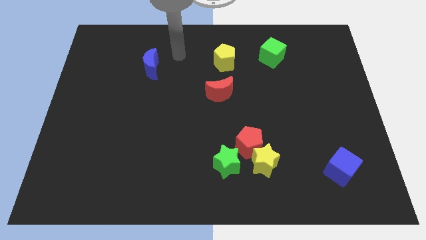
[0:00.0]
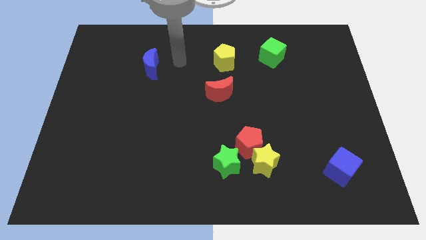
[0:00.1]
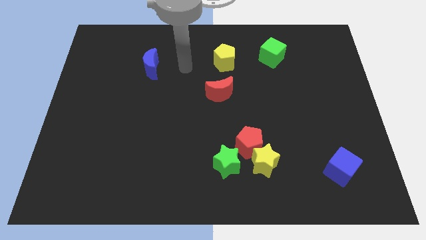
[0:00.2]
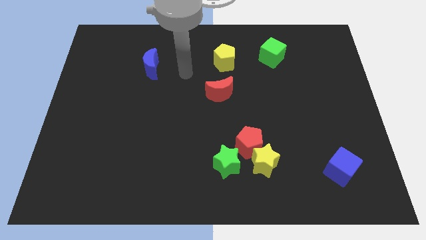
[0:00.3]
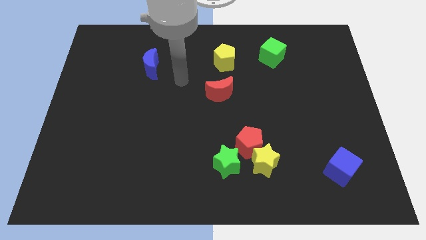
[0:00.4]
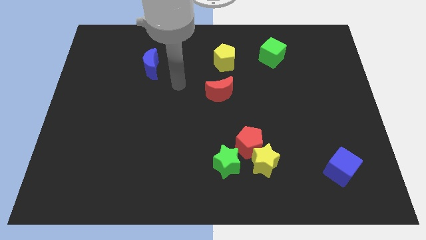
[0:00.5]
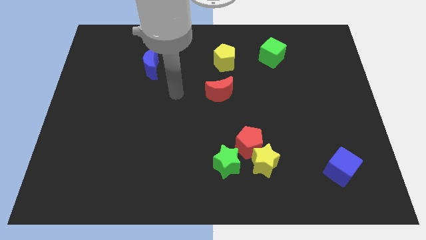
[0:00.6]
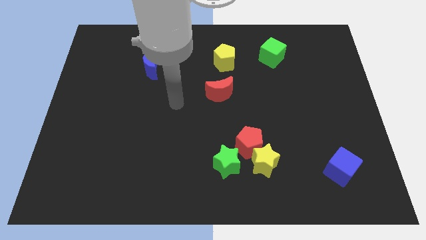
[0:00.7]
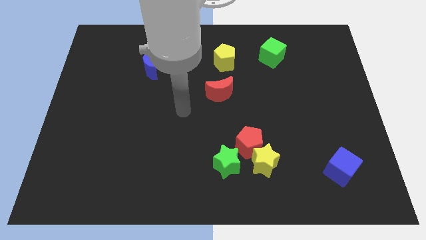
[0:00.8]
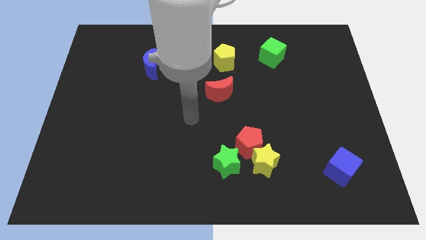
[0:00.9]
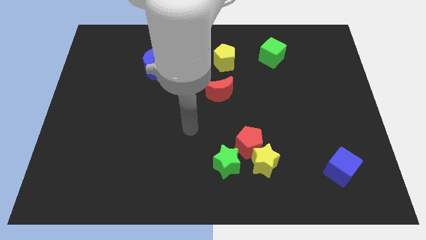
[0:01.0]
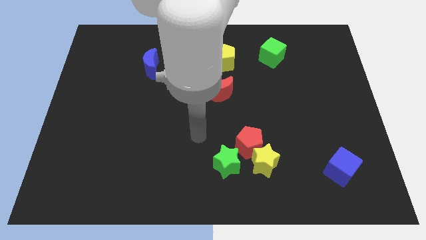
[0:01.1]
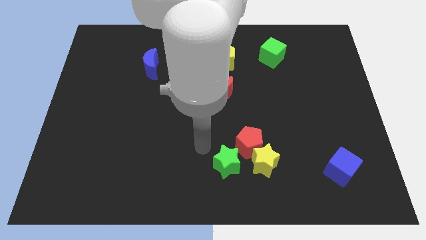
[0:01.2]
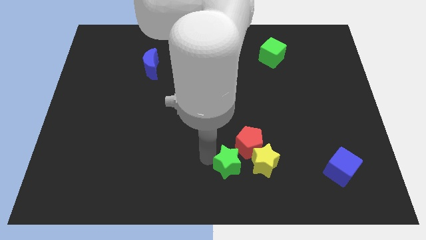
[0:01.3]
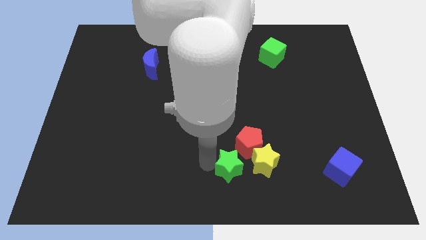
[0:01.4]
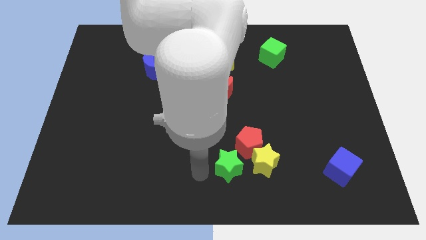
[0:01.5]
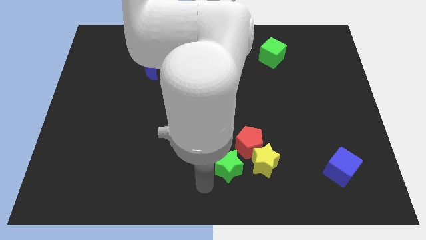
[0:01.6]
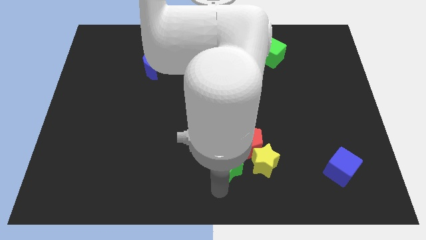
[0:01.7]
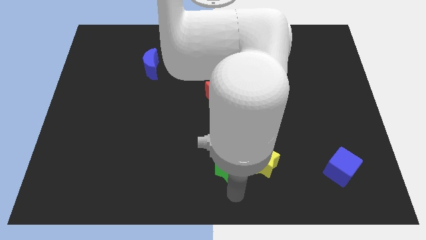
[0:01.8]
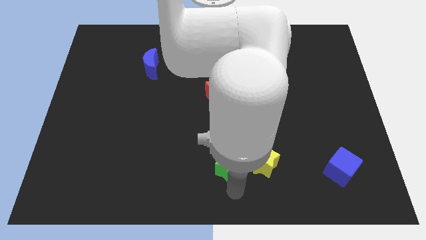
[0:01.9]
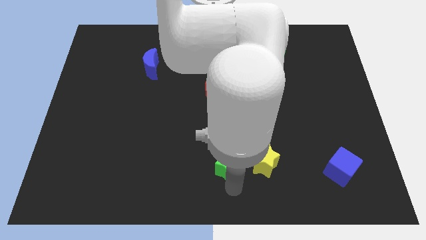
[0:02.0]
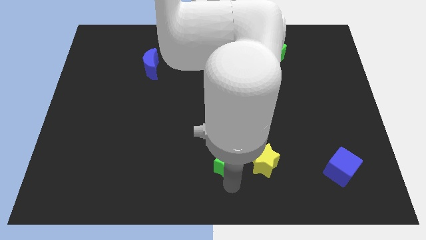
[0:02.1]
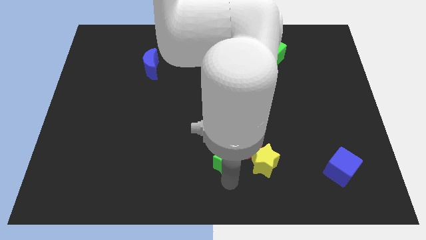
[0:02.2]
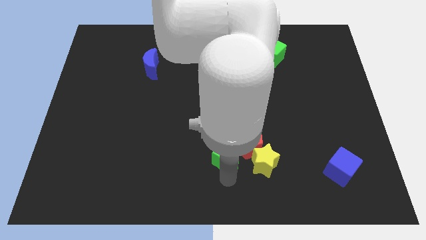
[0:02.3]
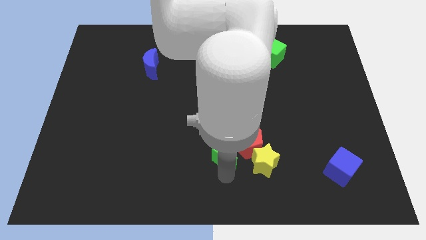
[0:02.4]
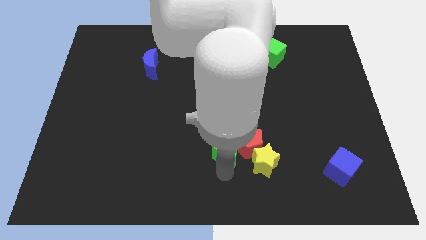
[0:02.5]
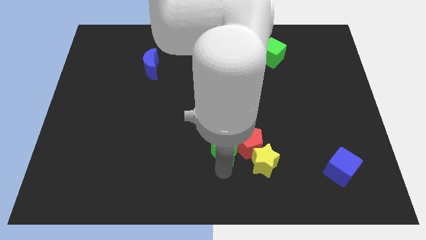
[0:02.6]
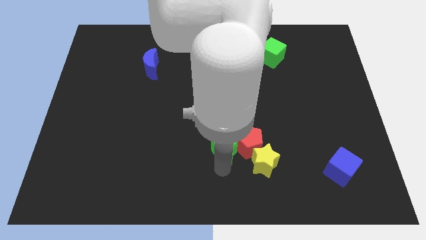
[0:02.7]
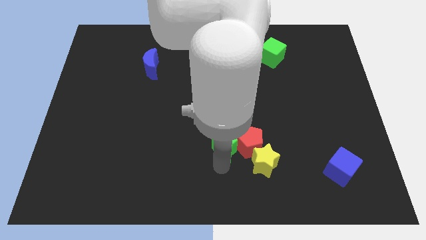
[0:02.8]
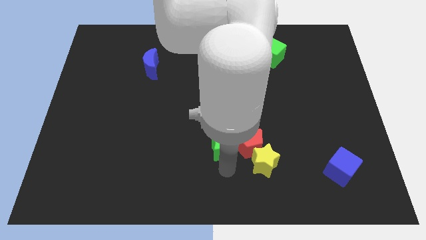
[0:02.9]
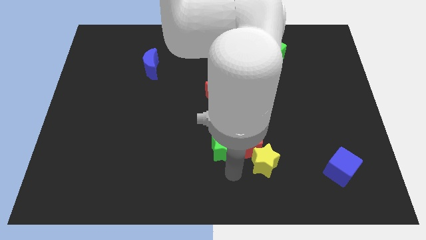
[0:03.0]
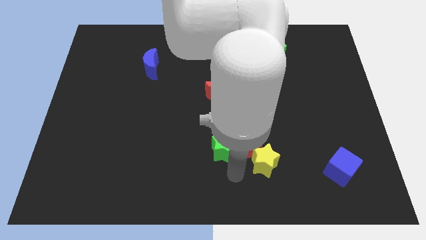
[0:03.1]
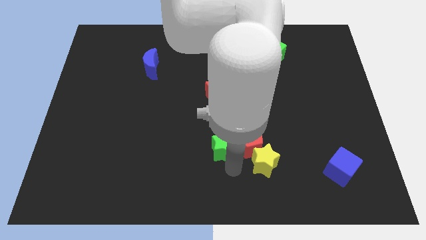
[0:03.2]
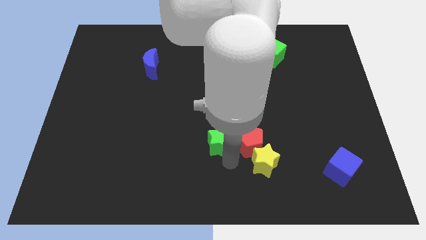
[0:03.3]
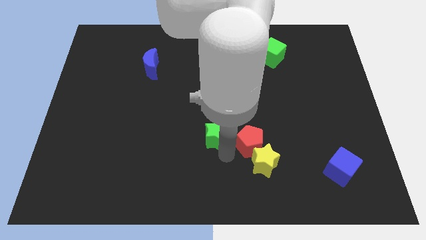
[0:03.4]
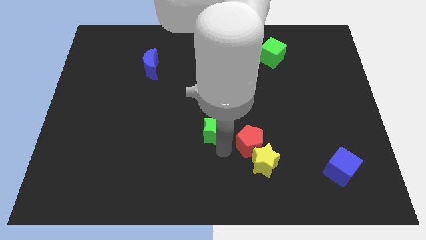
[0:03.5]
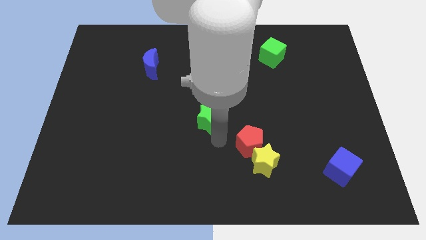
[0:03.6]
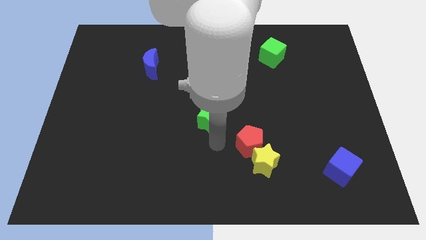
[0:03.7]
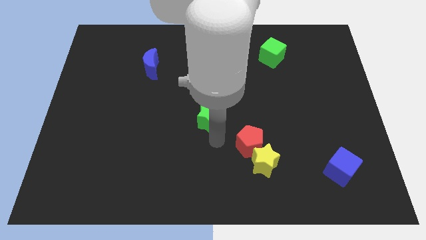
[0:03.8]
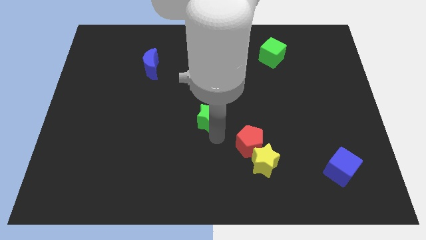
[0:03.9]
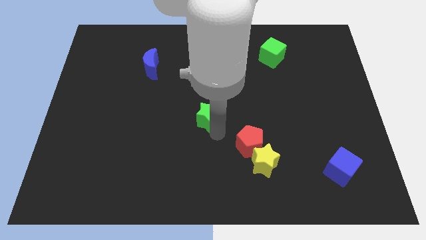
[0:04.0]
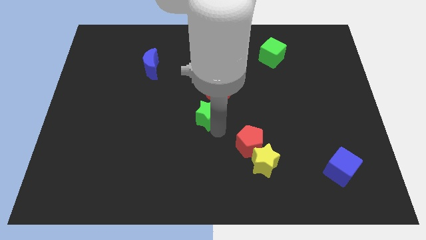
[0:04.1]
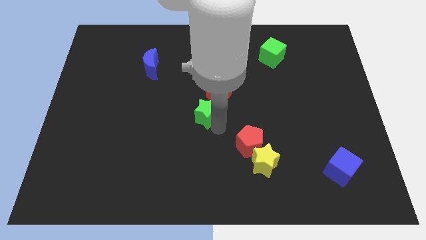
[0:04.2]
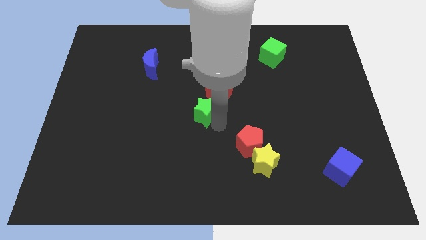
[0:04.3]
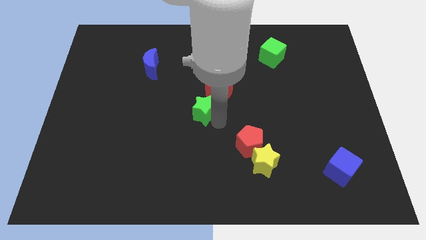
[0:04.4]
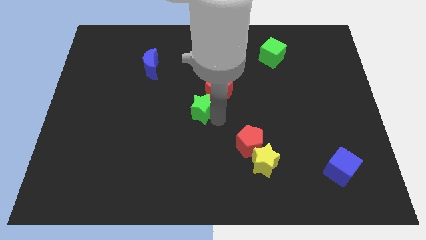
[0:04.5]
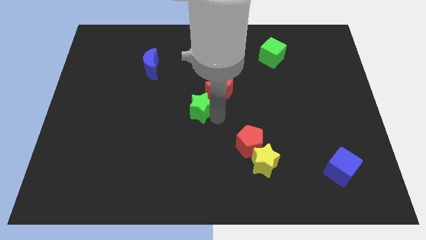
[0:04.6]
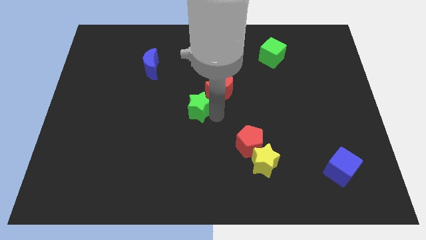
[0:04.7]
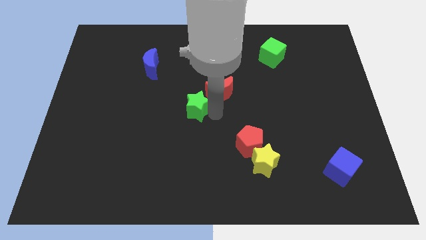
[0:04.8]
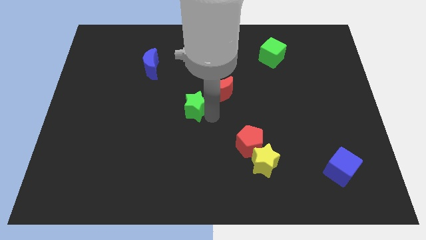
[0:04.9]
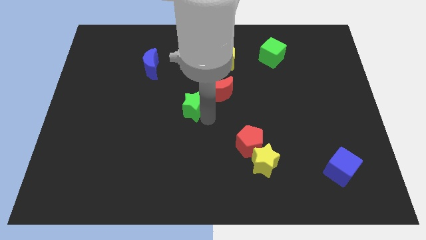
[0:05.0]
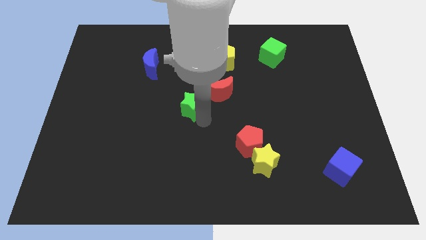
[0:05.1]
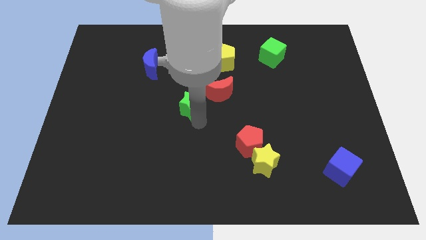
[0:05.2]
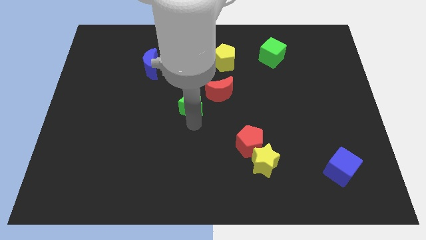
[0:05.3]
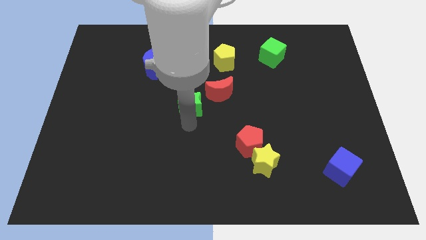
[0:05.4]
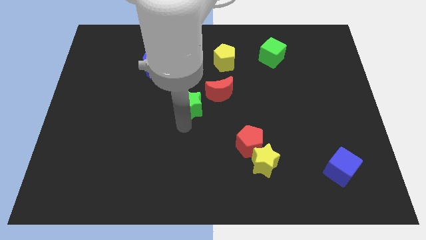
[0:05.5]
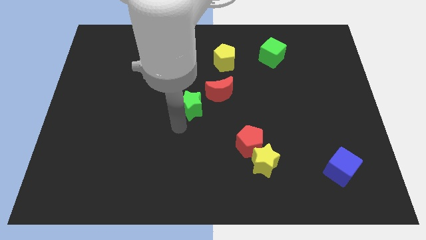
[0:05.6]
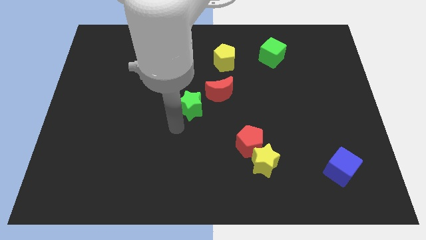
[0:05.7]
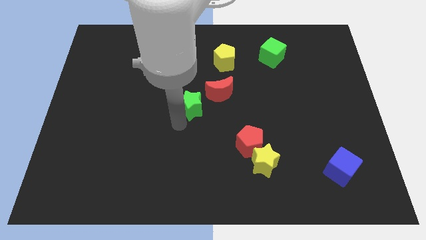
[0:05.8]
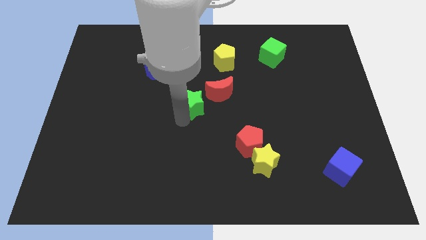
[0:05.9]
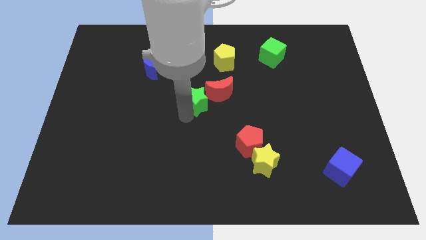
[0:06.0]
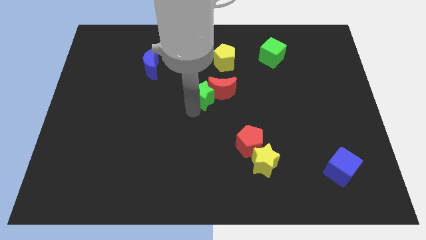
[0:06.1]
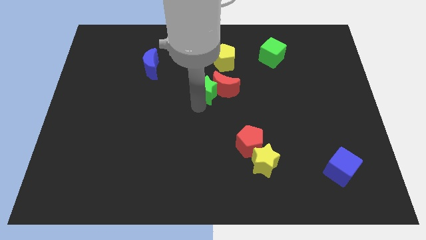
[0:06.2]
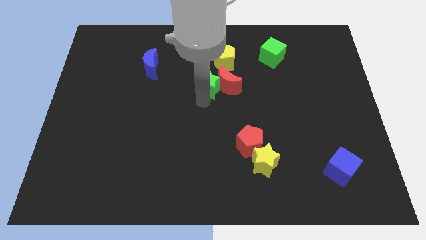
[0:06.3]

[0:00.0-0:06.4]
push the green star diagonally down and to the left of the yellow pentagon

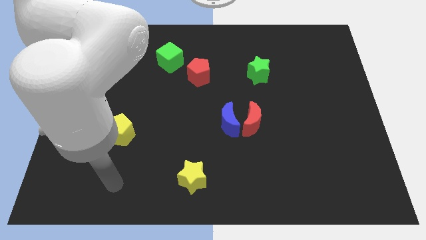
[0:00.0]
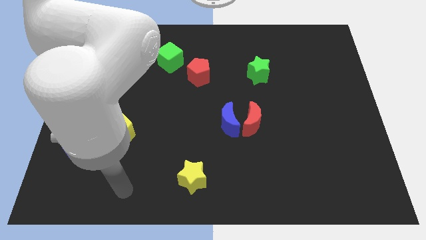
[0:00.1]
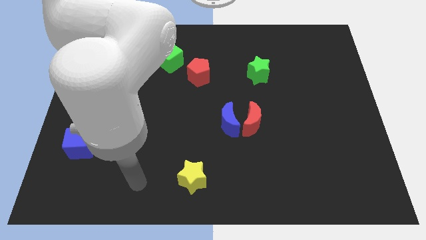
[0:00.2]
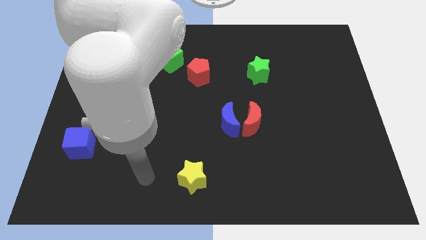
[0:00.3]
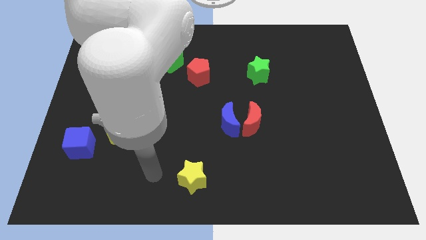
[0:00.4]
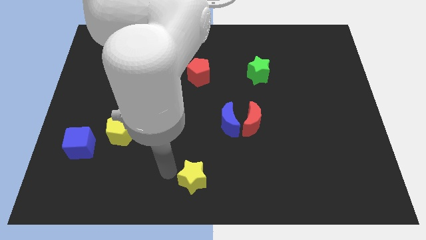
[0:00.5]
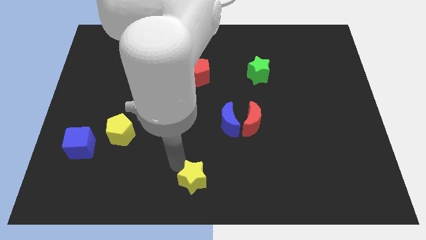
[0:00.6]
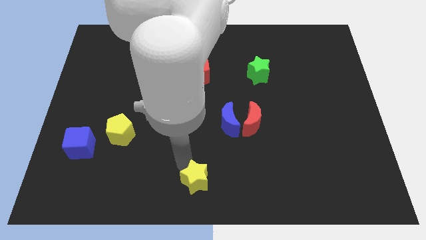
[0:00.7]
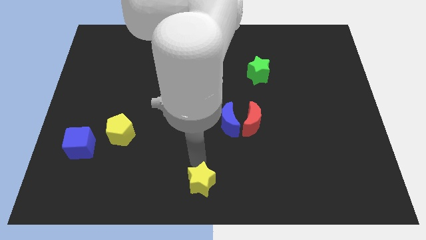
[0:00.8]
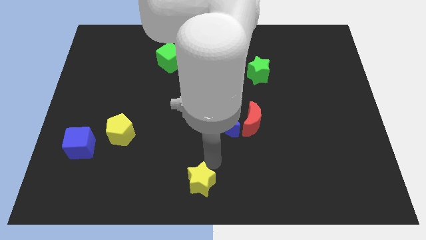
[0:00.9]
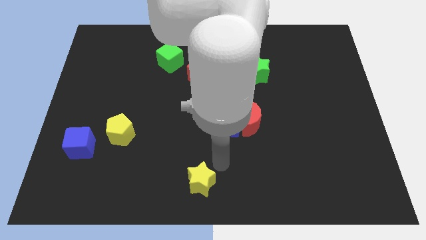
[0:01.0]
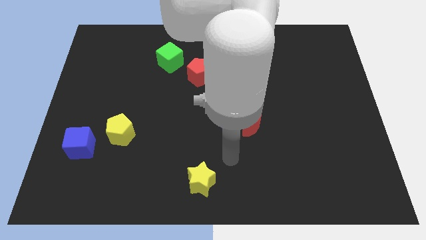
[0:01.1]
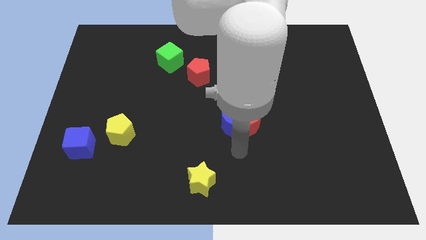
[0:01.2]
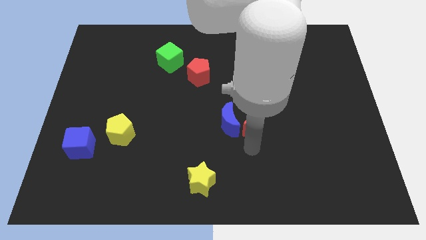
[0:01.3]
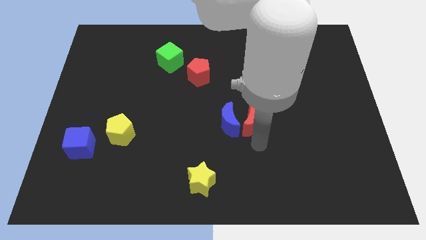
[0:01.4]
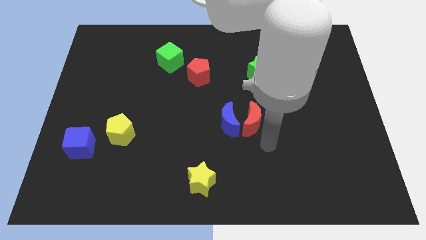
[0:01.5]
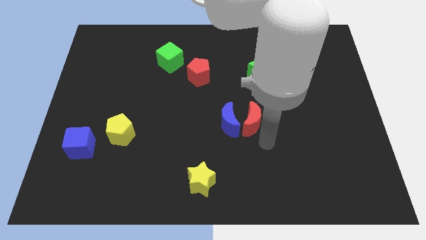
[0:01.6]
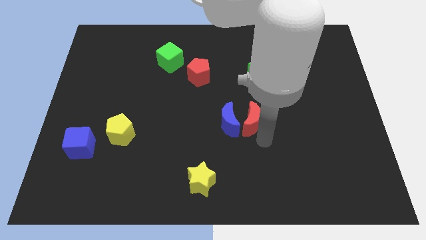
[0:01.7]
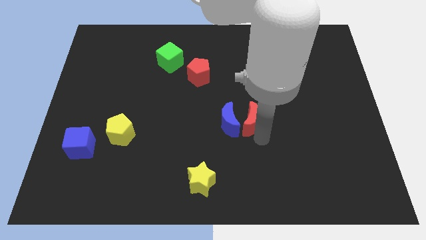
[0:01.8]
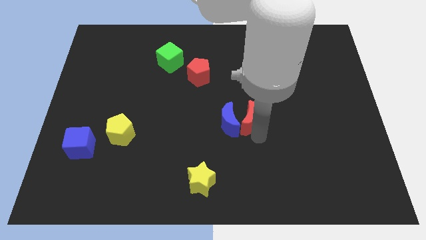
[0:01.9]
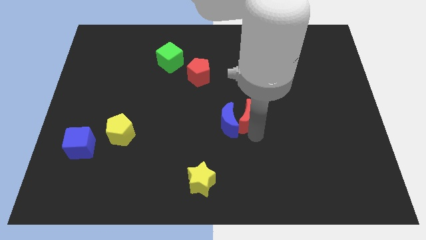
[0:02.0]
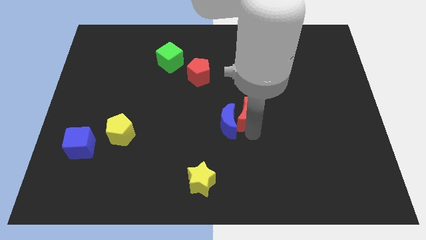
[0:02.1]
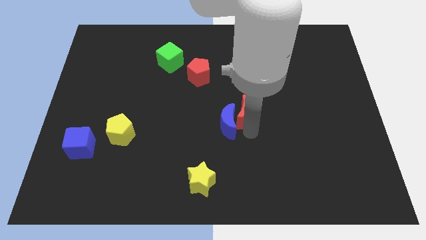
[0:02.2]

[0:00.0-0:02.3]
push the red moon to the top of the blue moon
